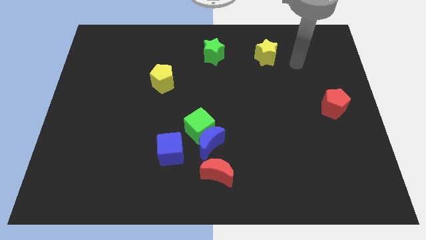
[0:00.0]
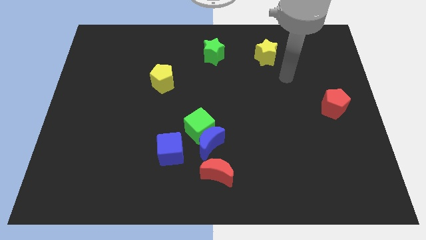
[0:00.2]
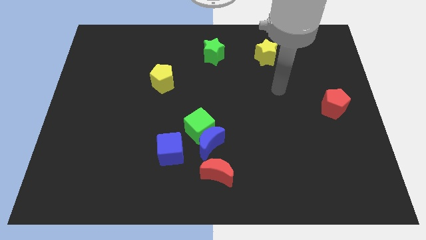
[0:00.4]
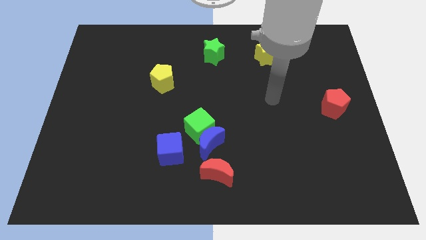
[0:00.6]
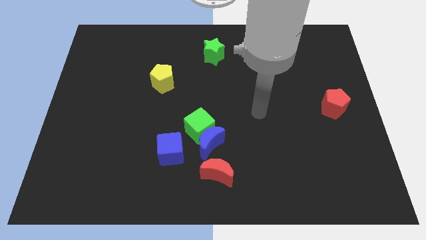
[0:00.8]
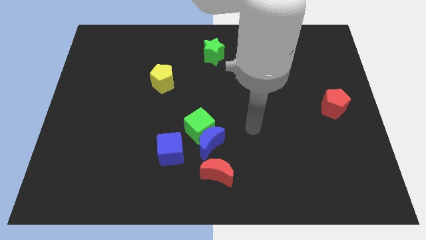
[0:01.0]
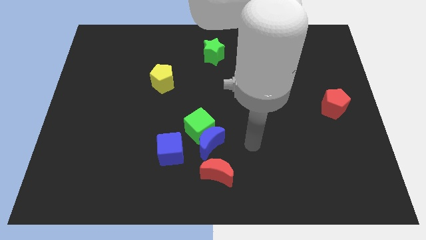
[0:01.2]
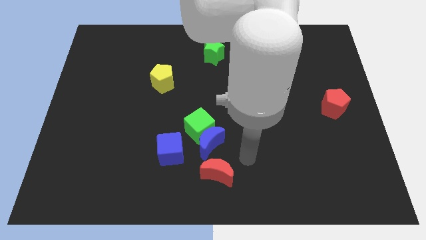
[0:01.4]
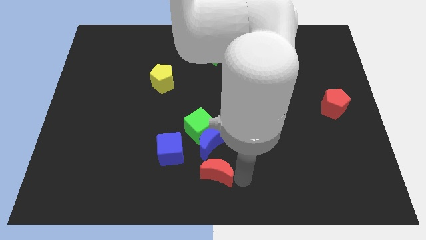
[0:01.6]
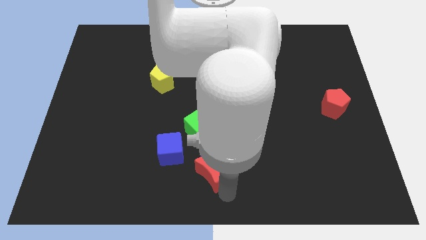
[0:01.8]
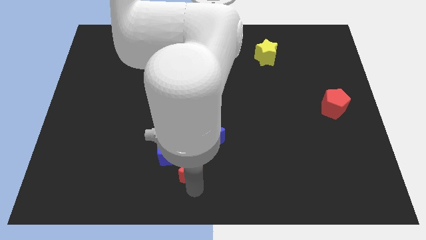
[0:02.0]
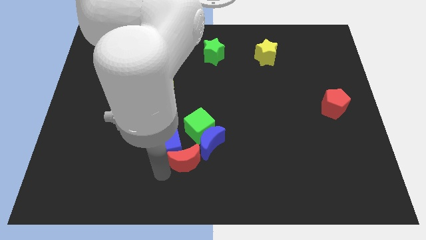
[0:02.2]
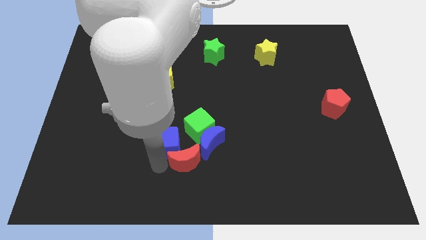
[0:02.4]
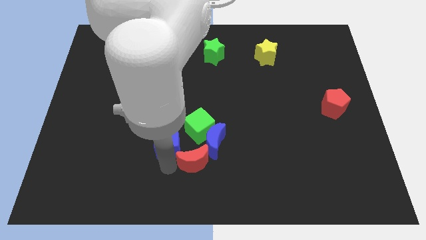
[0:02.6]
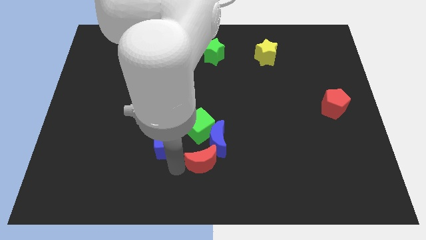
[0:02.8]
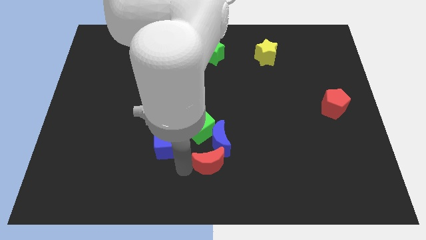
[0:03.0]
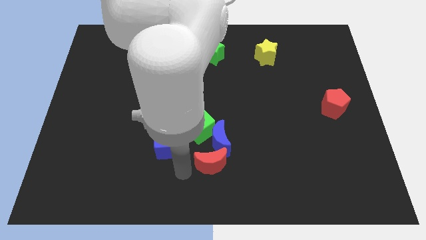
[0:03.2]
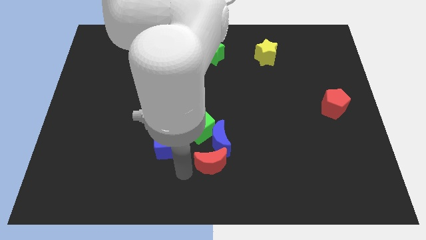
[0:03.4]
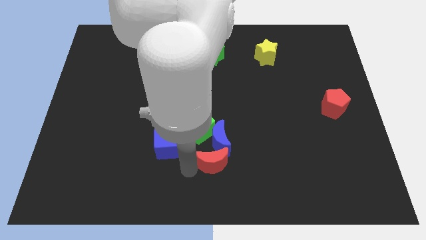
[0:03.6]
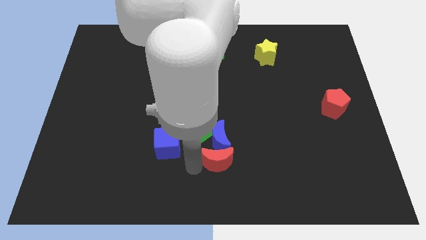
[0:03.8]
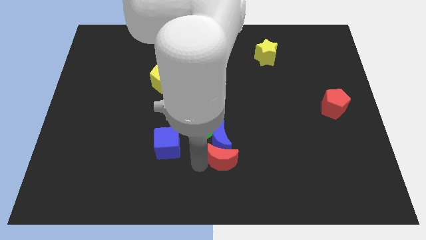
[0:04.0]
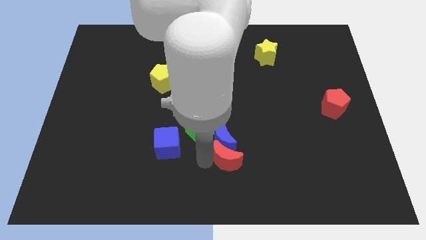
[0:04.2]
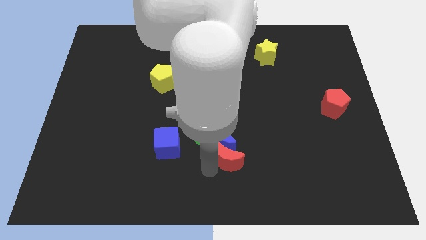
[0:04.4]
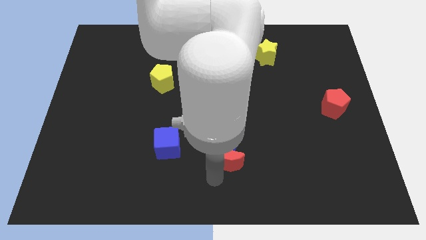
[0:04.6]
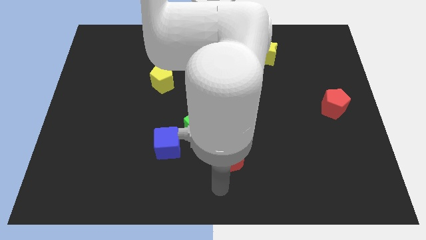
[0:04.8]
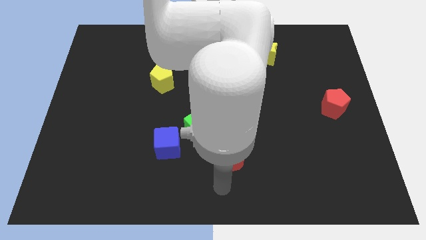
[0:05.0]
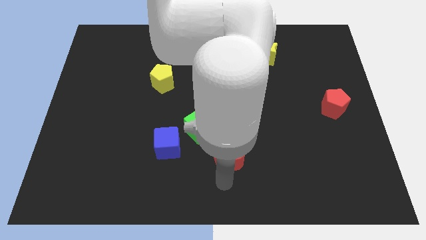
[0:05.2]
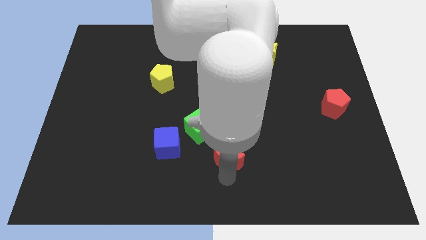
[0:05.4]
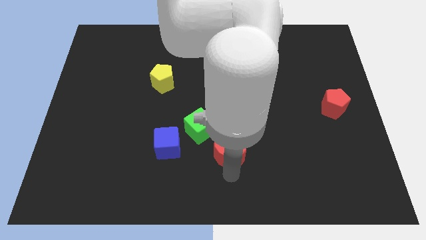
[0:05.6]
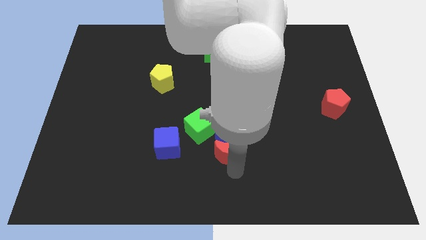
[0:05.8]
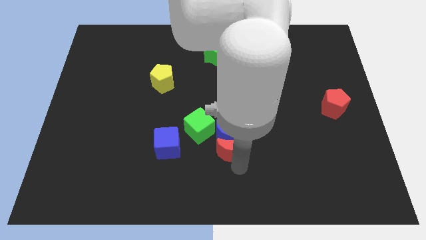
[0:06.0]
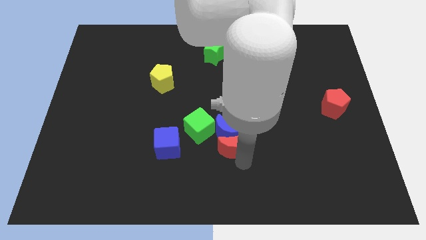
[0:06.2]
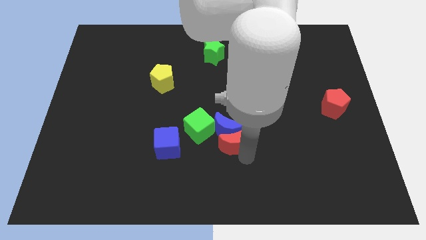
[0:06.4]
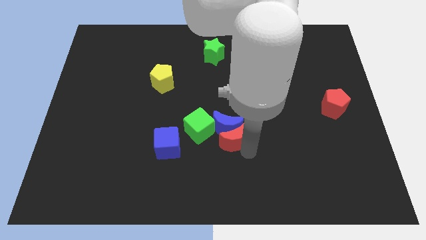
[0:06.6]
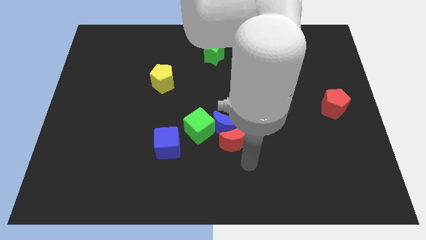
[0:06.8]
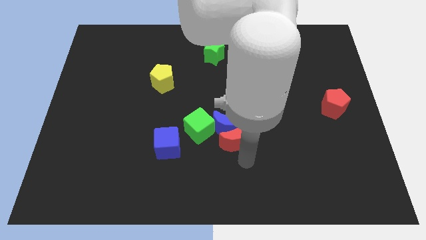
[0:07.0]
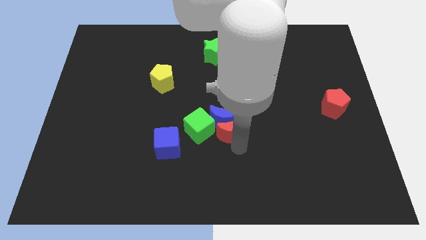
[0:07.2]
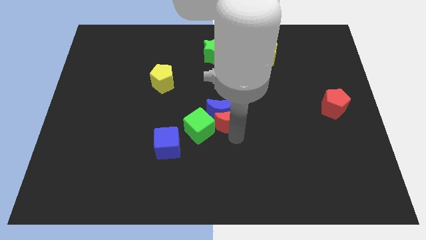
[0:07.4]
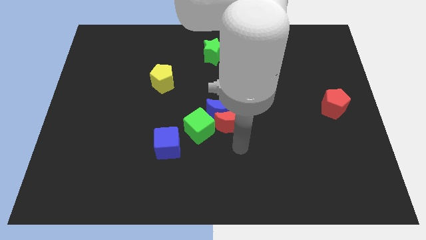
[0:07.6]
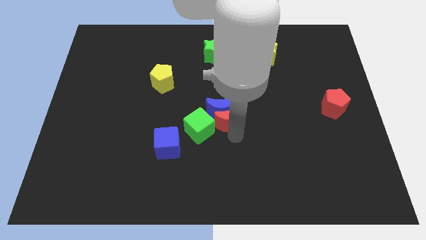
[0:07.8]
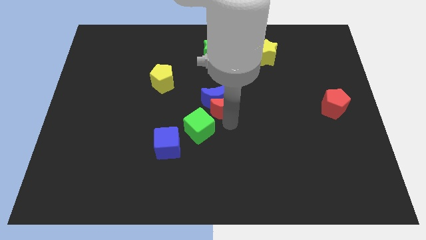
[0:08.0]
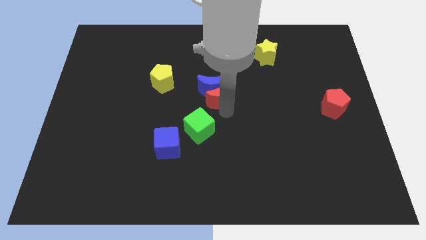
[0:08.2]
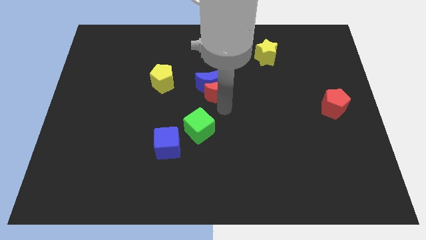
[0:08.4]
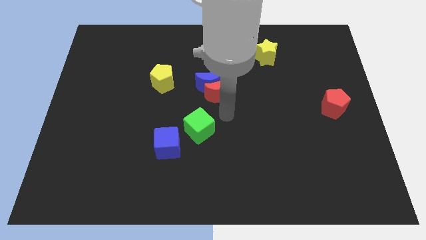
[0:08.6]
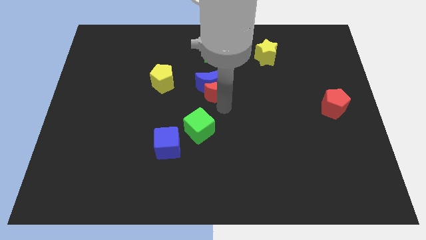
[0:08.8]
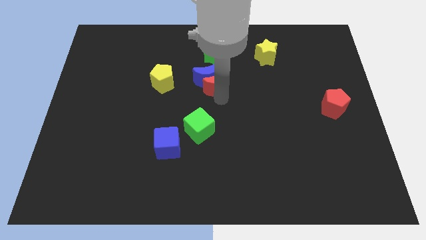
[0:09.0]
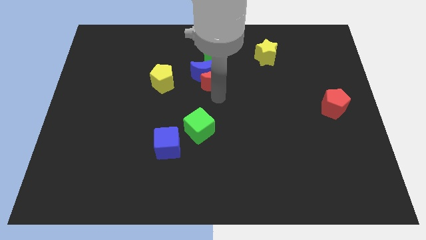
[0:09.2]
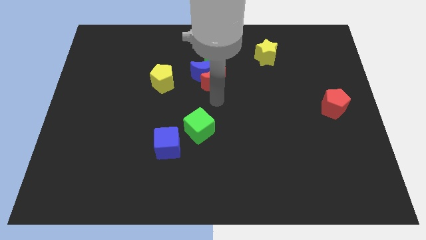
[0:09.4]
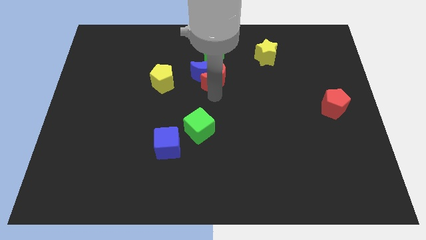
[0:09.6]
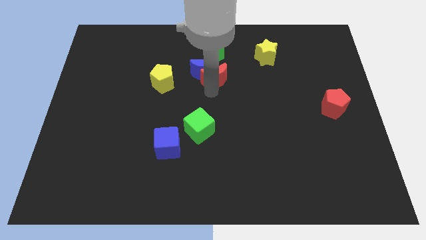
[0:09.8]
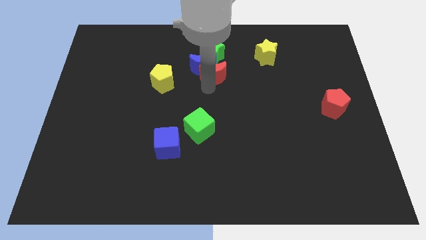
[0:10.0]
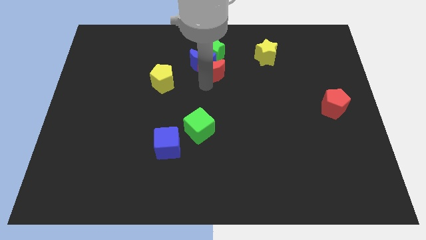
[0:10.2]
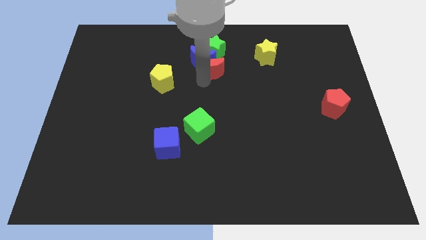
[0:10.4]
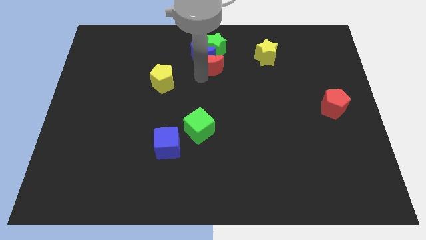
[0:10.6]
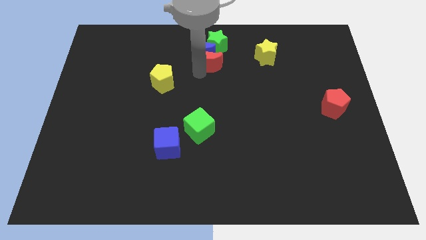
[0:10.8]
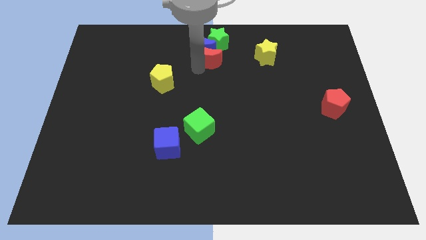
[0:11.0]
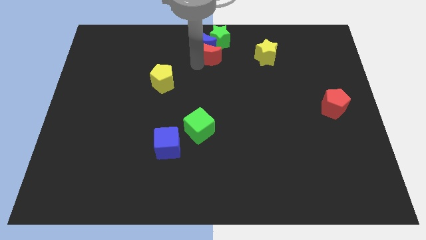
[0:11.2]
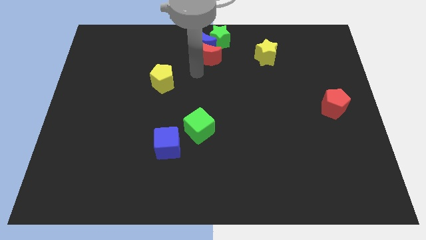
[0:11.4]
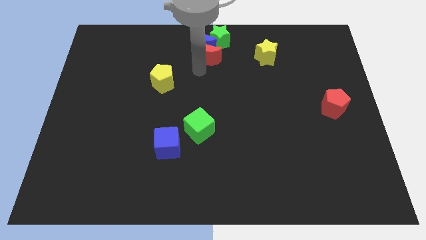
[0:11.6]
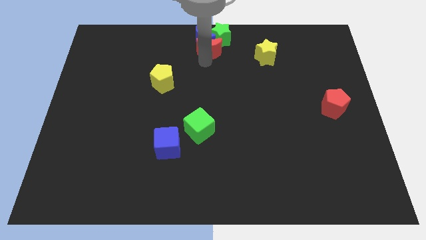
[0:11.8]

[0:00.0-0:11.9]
push the red moon close to the green star

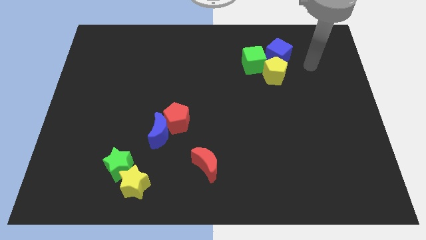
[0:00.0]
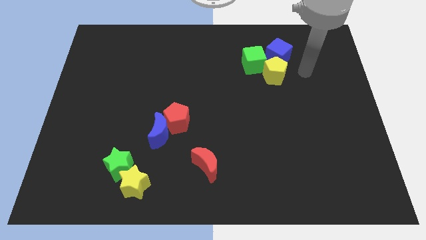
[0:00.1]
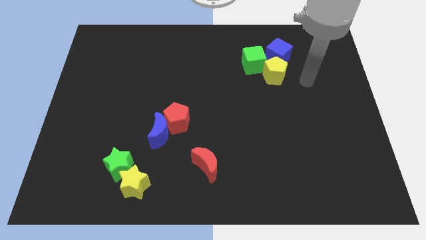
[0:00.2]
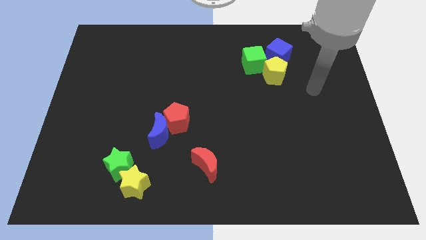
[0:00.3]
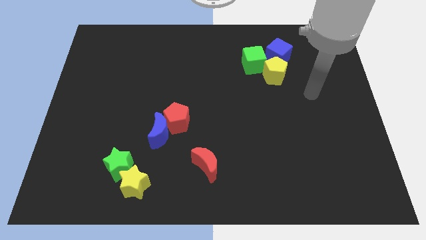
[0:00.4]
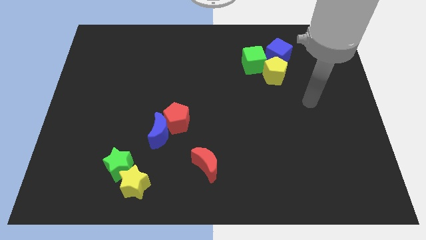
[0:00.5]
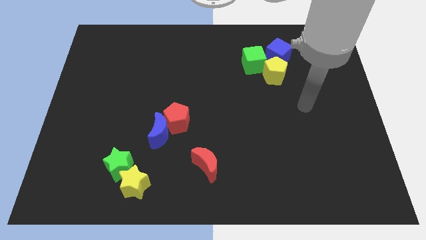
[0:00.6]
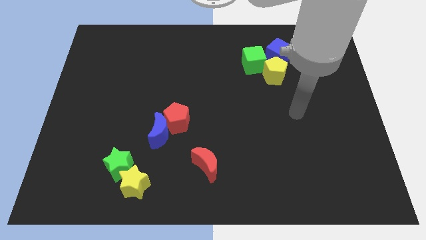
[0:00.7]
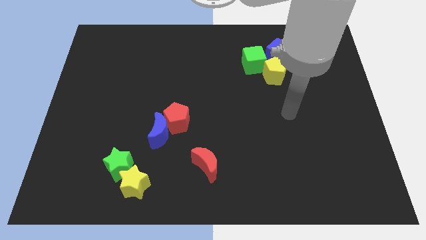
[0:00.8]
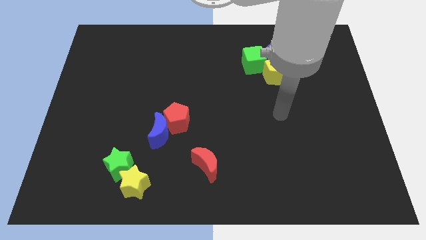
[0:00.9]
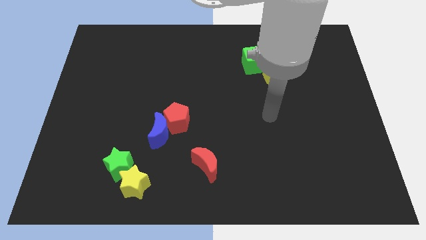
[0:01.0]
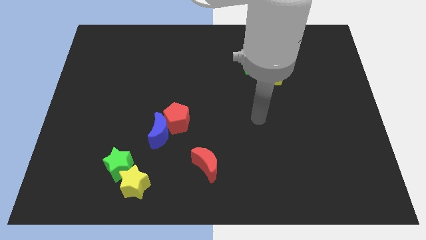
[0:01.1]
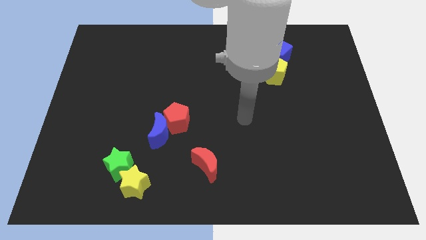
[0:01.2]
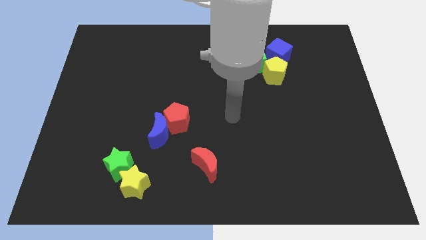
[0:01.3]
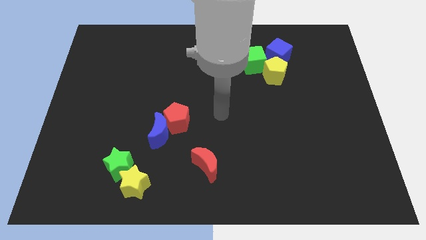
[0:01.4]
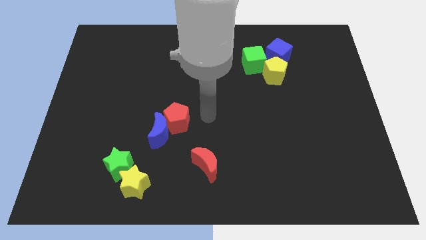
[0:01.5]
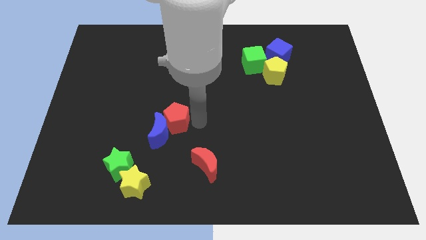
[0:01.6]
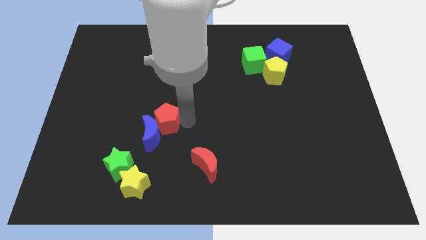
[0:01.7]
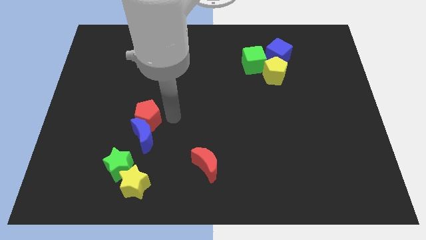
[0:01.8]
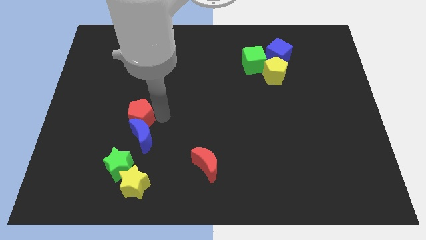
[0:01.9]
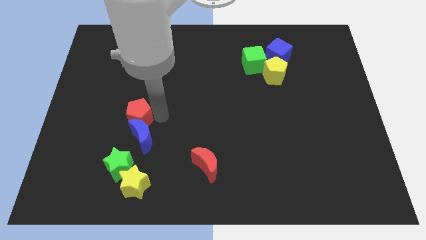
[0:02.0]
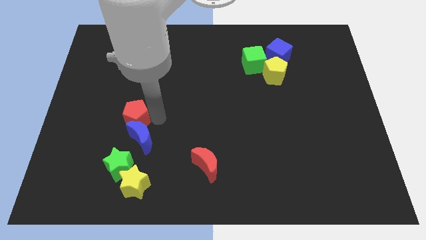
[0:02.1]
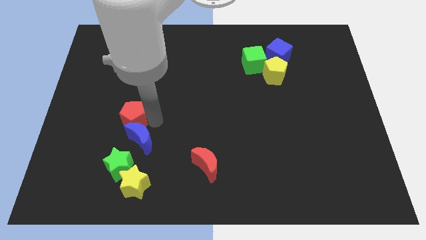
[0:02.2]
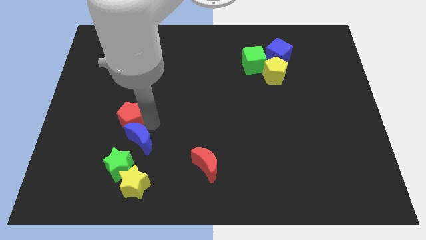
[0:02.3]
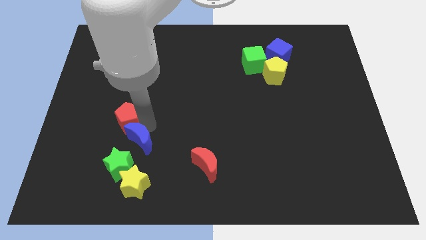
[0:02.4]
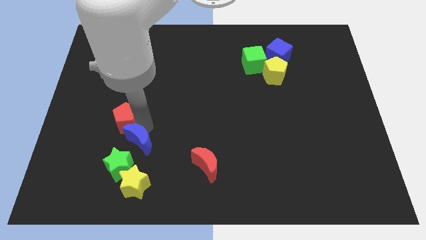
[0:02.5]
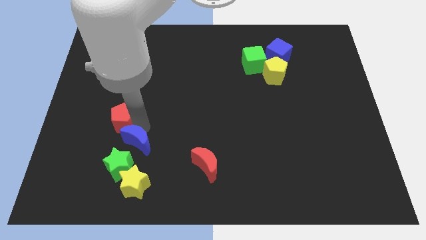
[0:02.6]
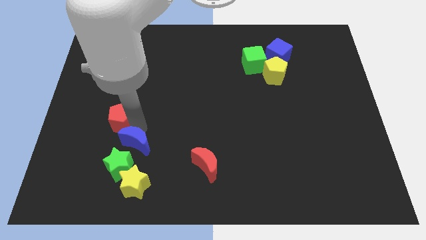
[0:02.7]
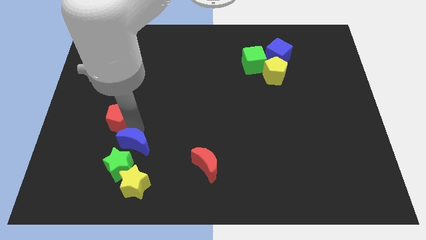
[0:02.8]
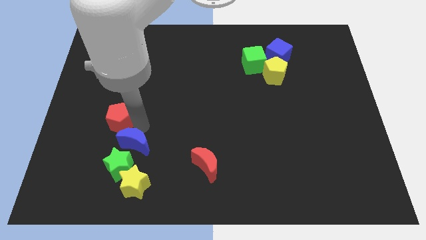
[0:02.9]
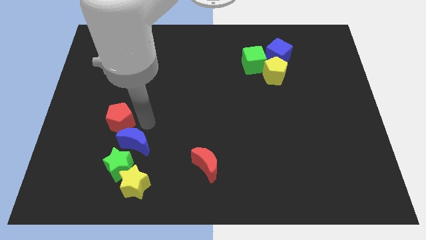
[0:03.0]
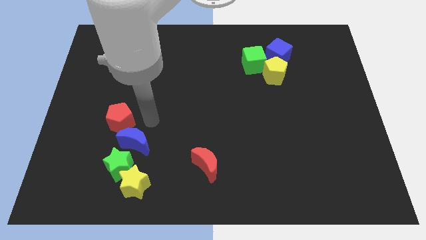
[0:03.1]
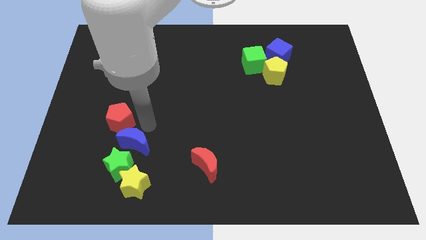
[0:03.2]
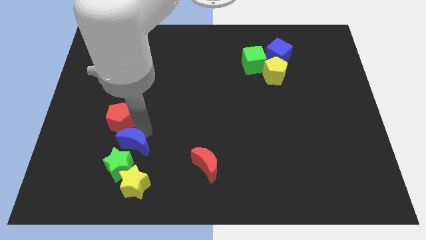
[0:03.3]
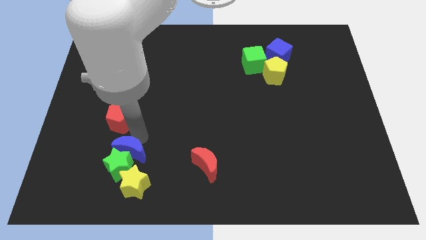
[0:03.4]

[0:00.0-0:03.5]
move the blue moon towards the green star
